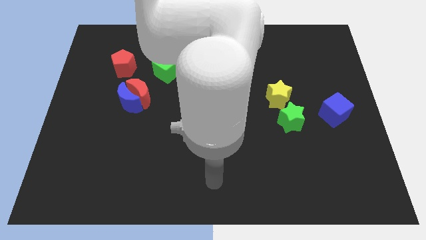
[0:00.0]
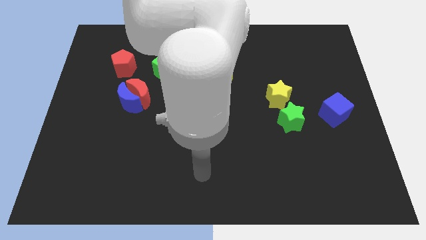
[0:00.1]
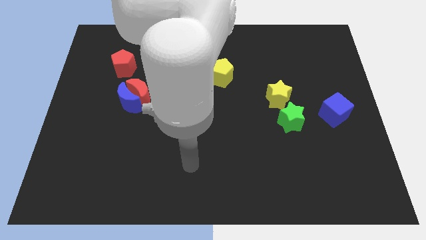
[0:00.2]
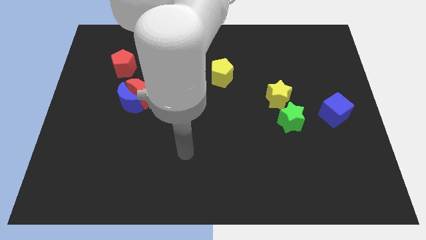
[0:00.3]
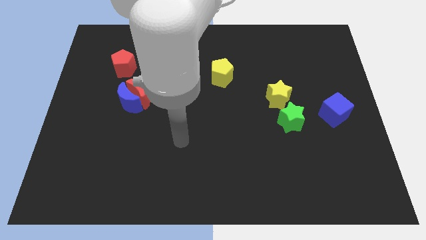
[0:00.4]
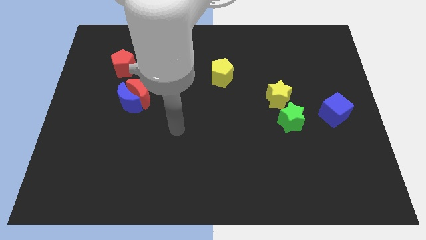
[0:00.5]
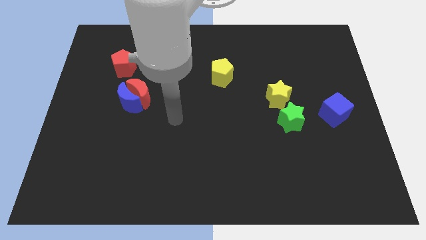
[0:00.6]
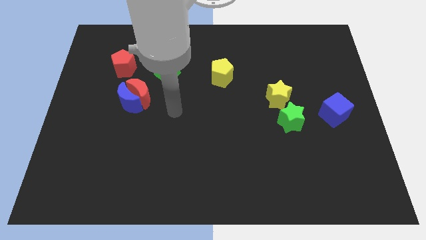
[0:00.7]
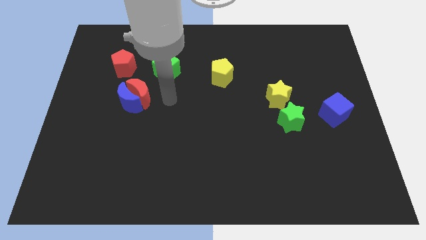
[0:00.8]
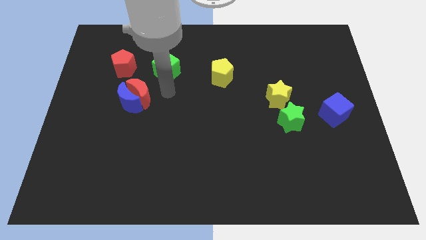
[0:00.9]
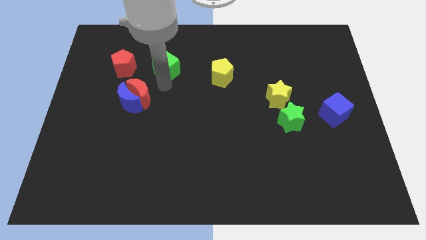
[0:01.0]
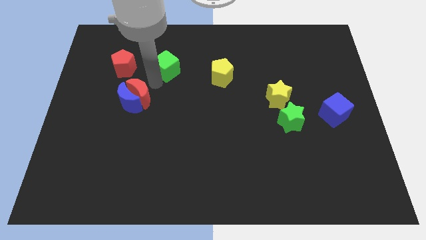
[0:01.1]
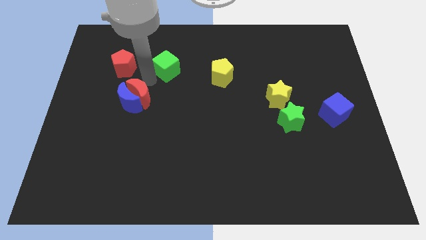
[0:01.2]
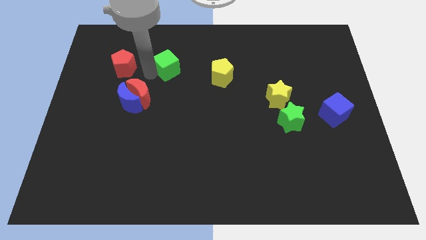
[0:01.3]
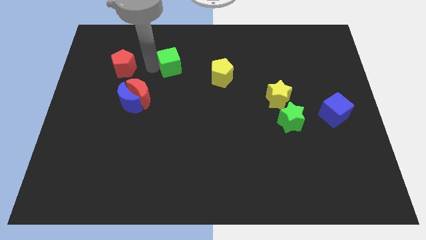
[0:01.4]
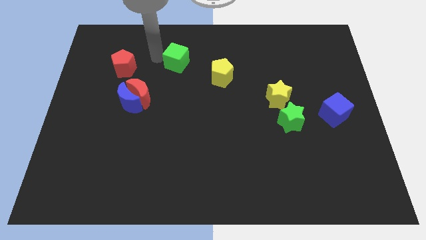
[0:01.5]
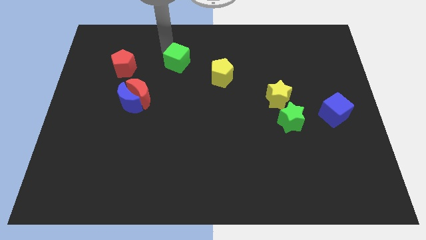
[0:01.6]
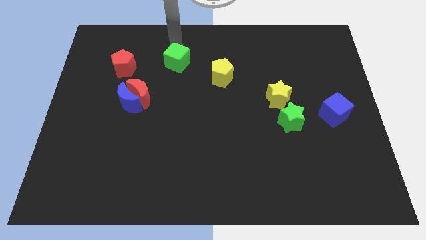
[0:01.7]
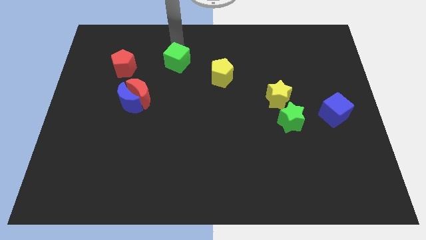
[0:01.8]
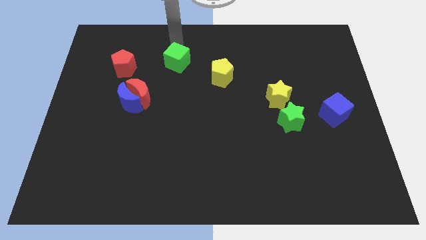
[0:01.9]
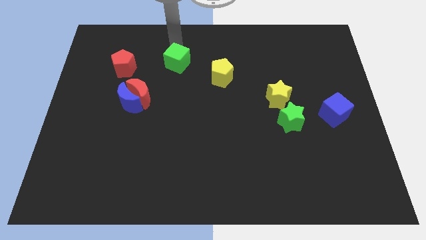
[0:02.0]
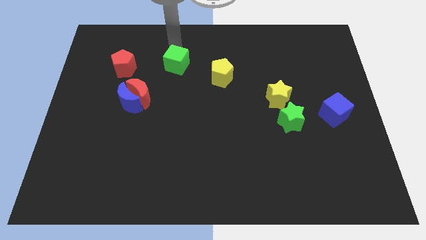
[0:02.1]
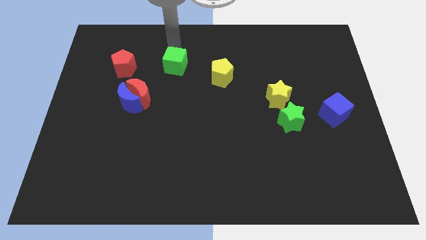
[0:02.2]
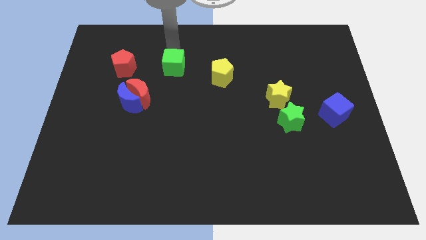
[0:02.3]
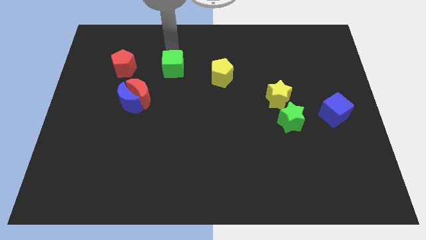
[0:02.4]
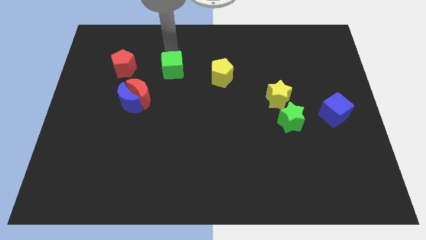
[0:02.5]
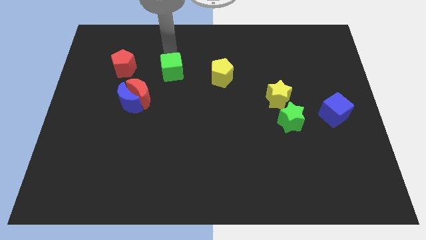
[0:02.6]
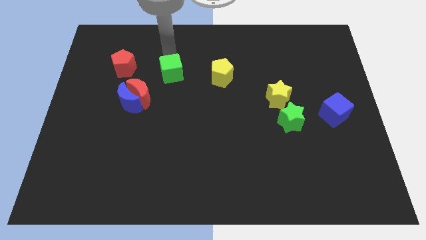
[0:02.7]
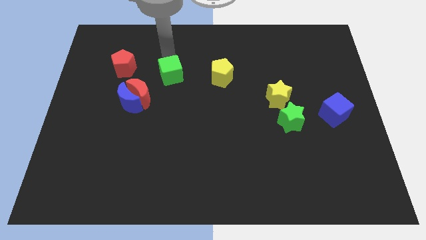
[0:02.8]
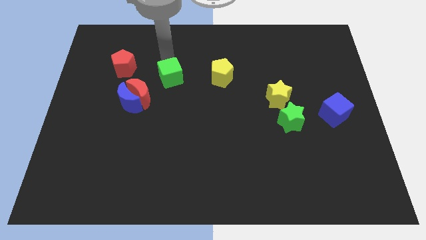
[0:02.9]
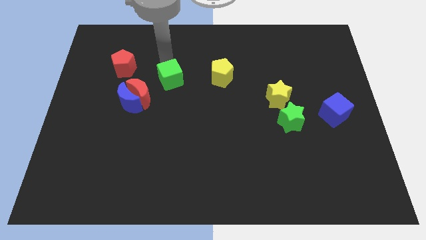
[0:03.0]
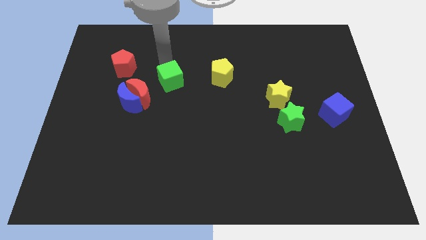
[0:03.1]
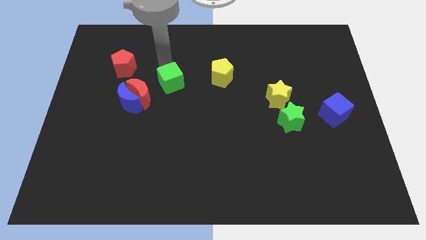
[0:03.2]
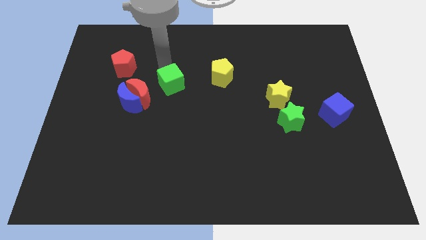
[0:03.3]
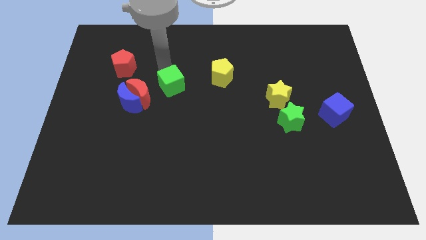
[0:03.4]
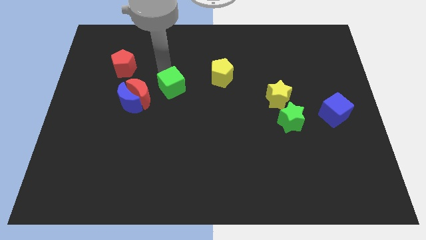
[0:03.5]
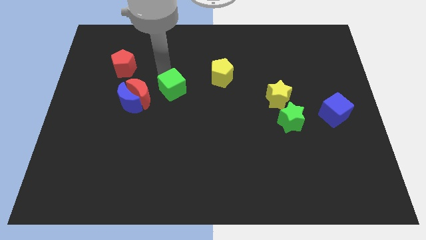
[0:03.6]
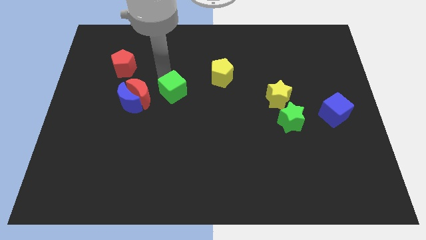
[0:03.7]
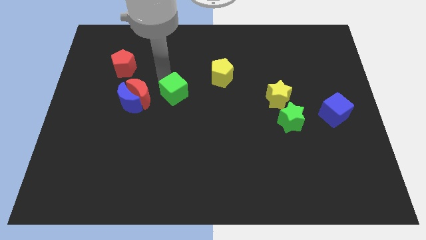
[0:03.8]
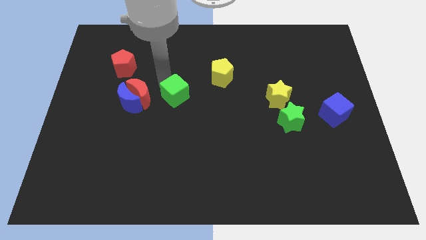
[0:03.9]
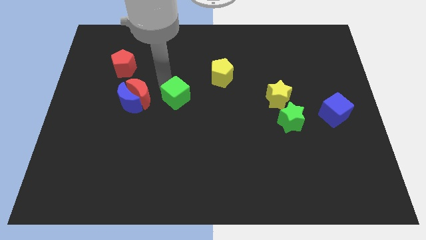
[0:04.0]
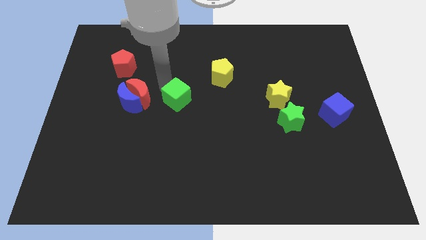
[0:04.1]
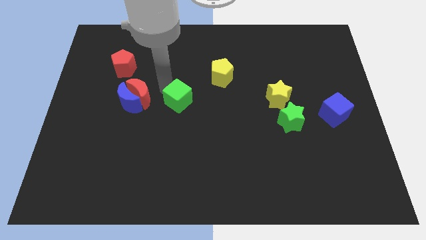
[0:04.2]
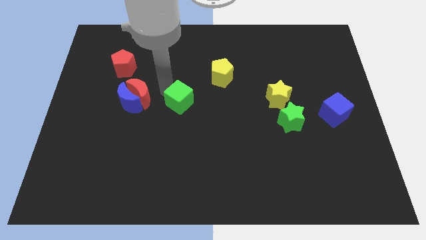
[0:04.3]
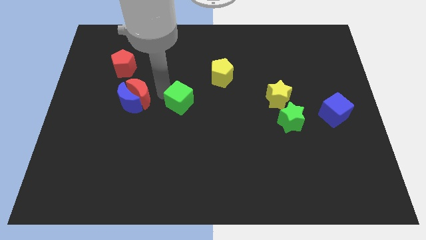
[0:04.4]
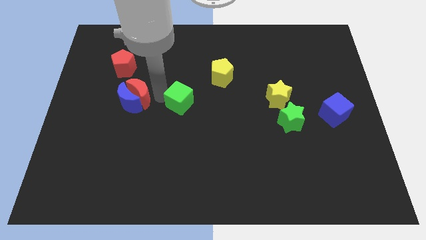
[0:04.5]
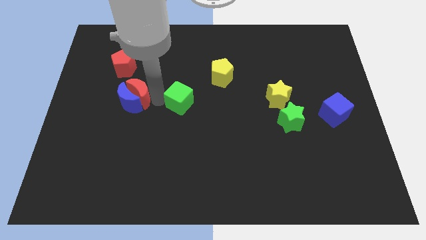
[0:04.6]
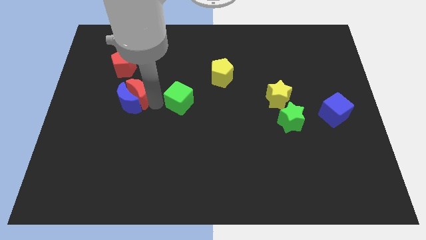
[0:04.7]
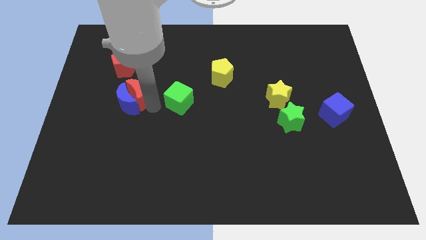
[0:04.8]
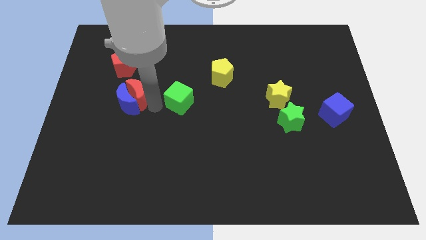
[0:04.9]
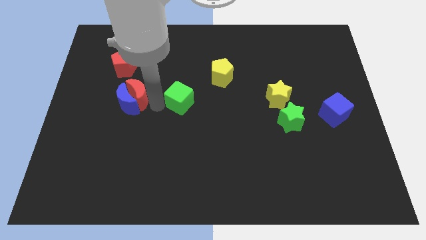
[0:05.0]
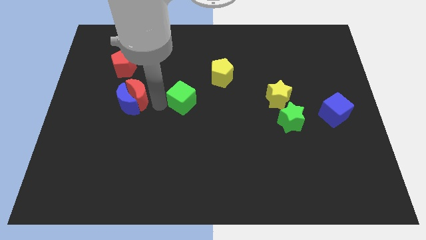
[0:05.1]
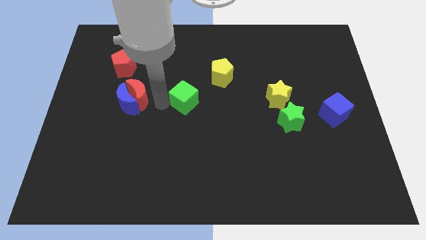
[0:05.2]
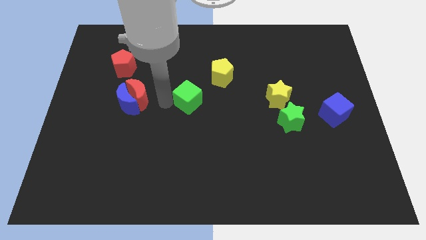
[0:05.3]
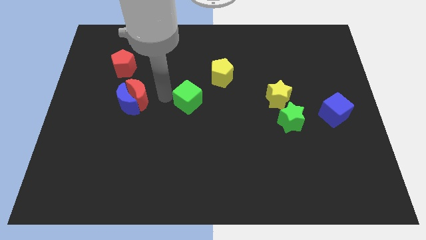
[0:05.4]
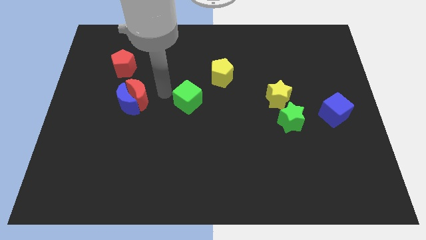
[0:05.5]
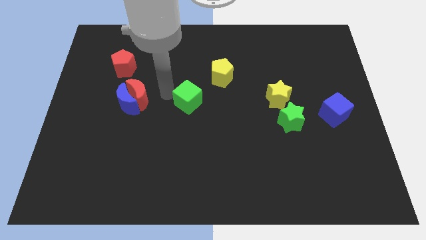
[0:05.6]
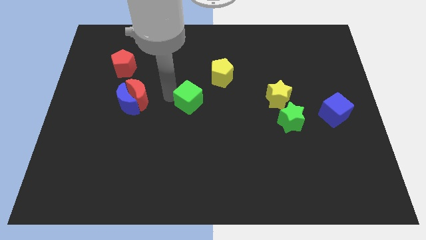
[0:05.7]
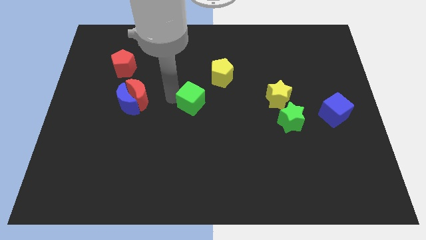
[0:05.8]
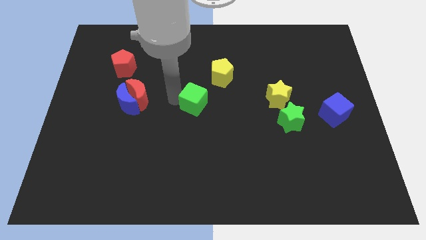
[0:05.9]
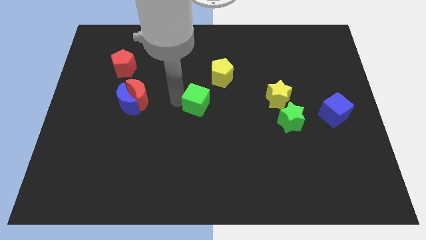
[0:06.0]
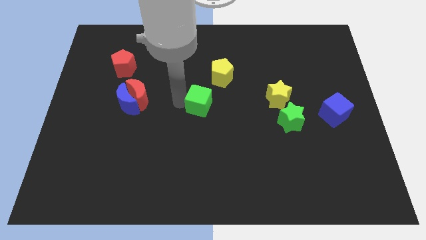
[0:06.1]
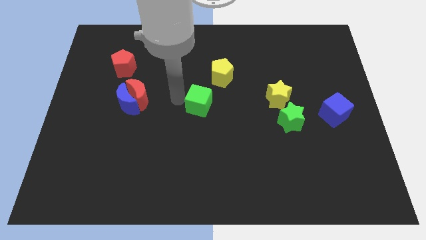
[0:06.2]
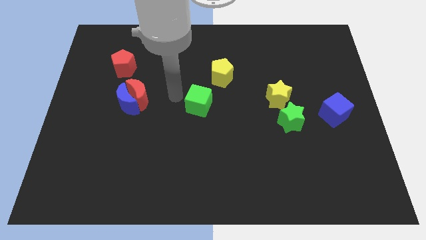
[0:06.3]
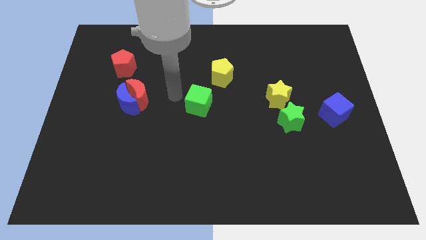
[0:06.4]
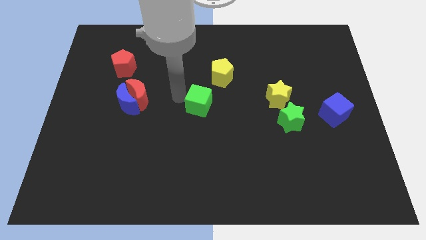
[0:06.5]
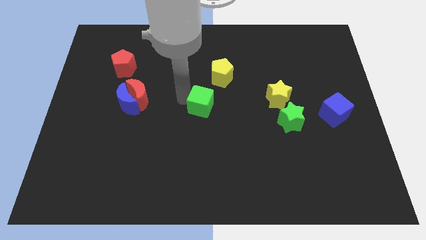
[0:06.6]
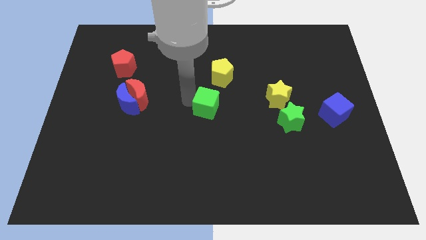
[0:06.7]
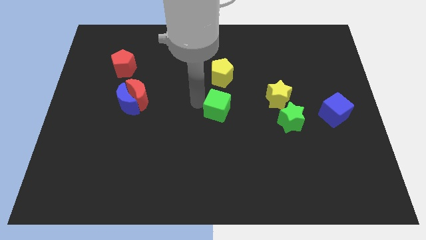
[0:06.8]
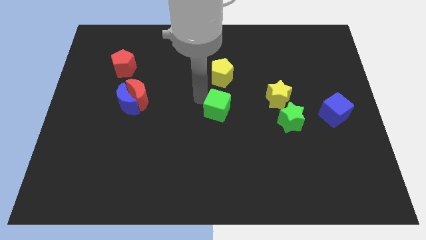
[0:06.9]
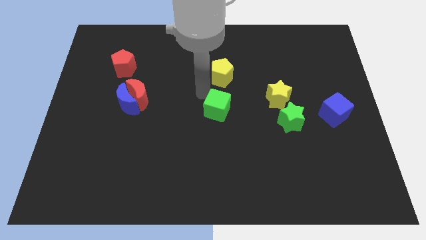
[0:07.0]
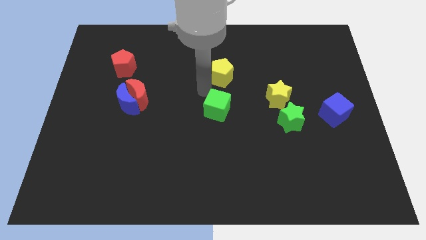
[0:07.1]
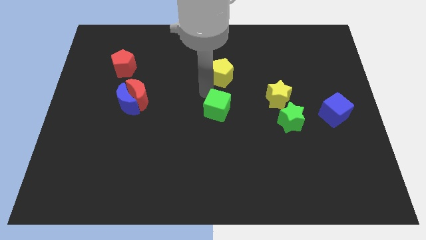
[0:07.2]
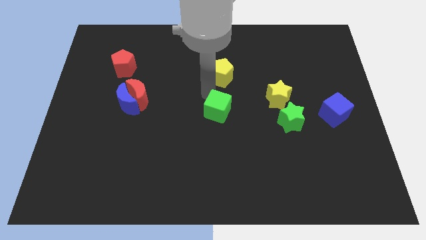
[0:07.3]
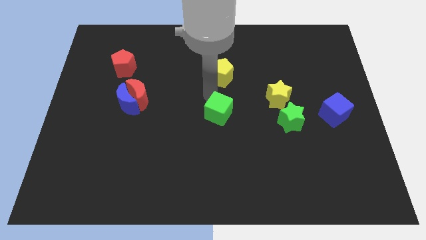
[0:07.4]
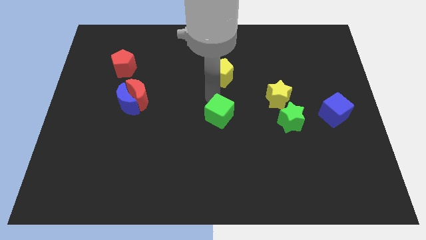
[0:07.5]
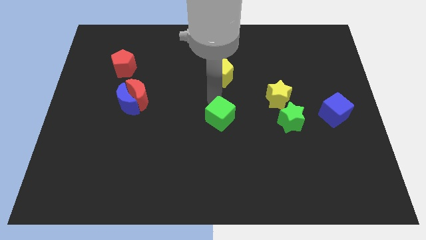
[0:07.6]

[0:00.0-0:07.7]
slide the green cube diagonally down and to the right

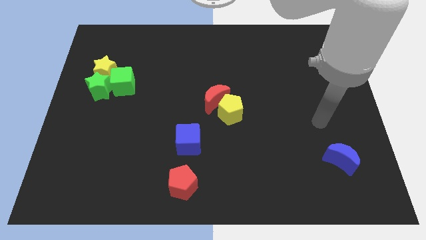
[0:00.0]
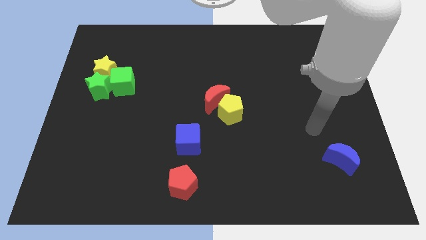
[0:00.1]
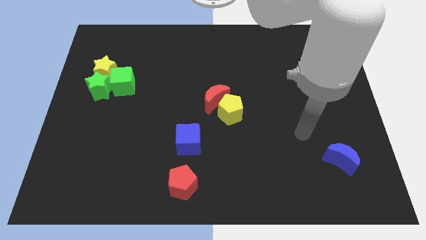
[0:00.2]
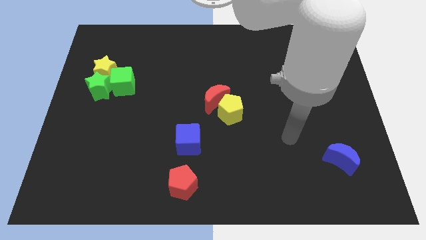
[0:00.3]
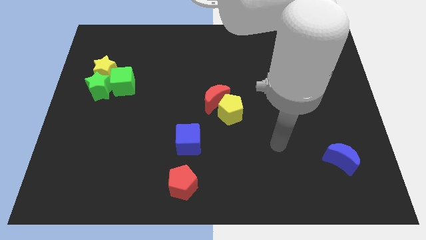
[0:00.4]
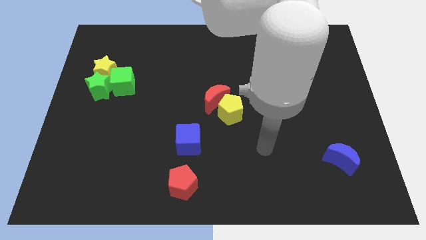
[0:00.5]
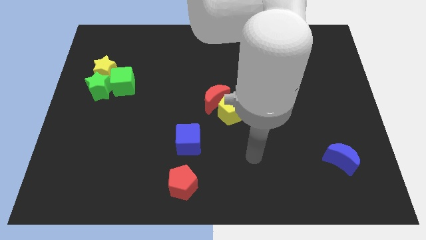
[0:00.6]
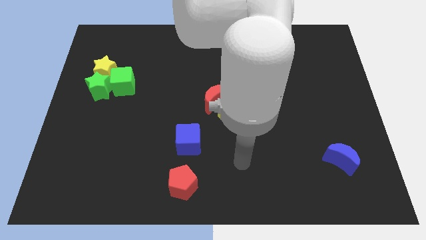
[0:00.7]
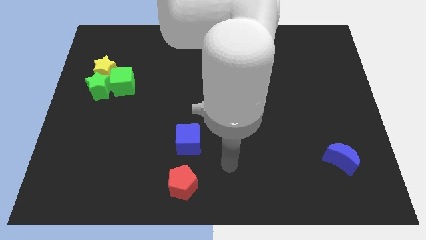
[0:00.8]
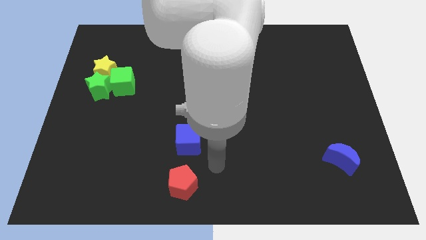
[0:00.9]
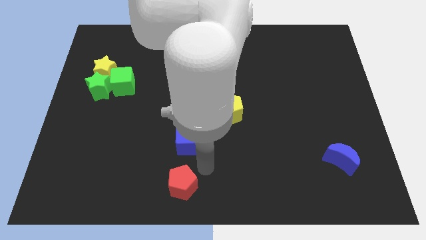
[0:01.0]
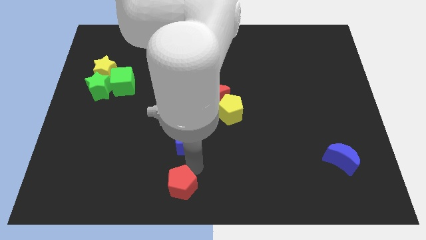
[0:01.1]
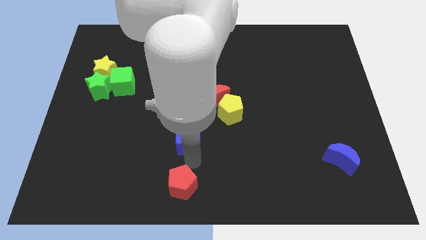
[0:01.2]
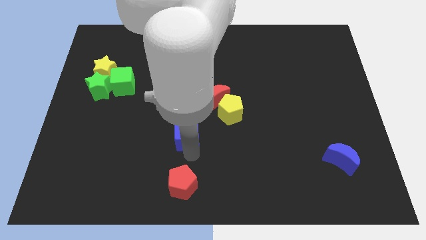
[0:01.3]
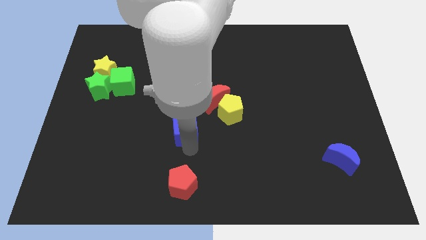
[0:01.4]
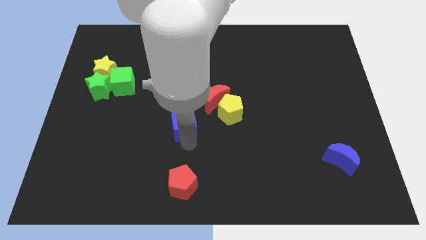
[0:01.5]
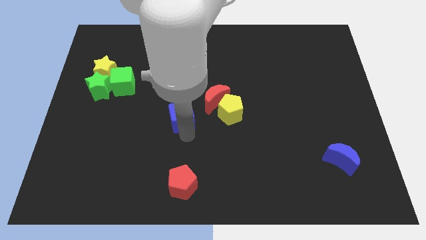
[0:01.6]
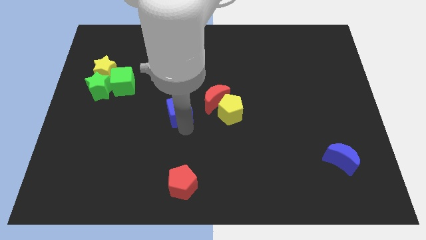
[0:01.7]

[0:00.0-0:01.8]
push the blue cube a bit upwards
